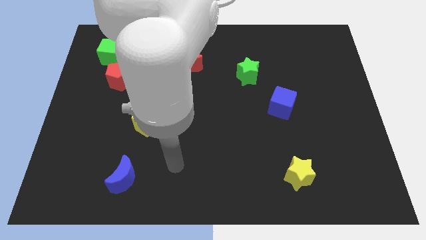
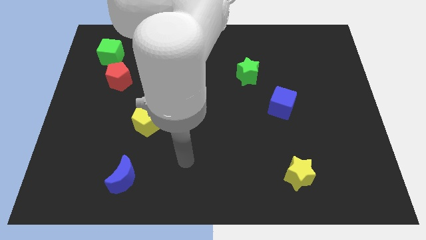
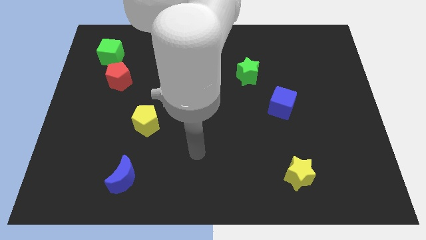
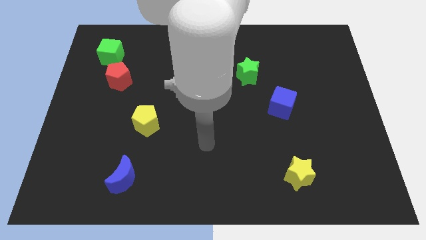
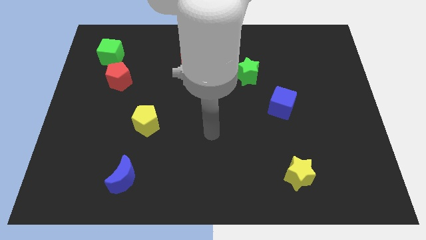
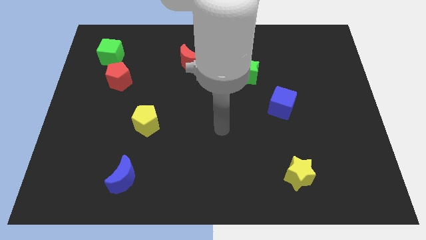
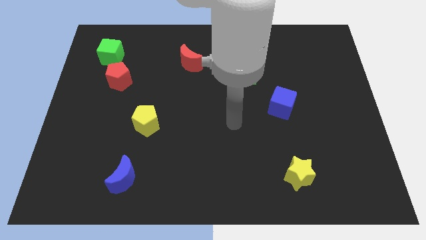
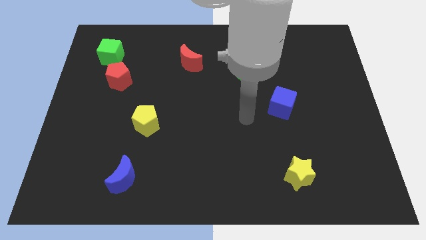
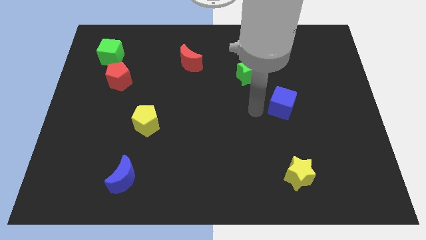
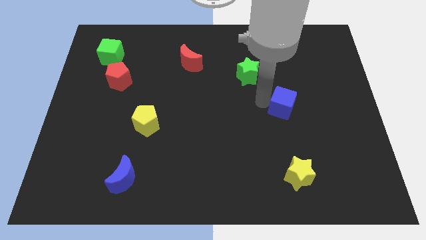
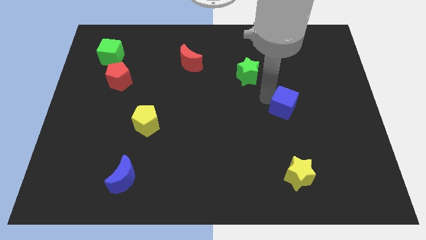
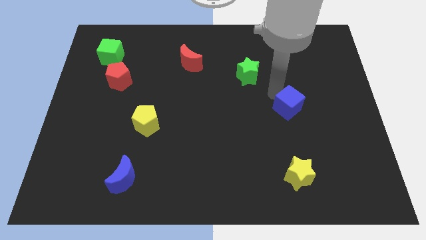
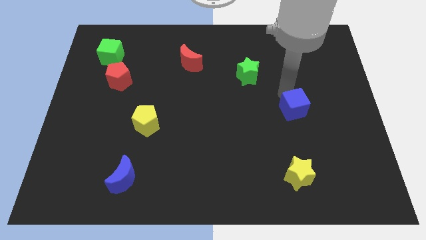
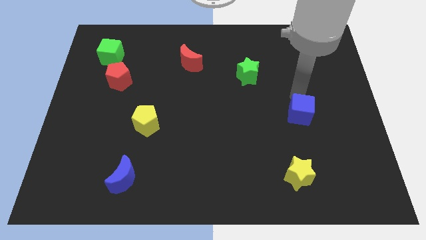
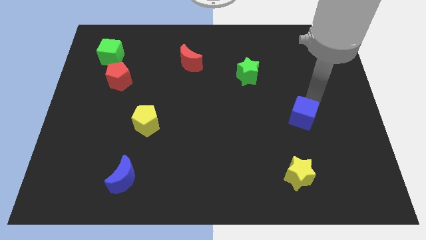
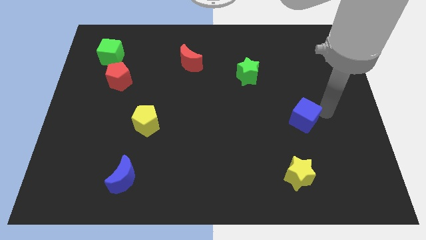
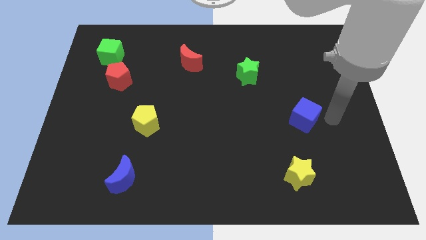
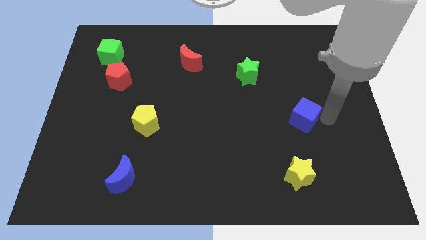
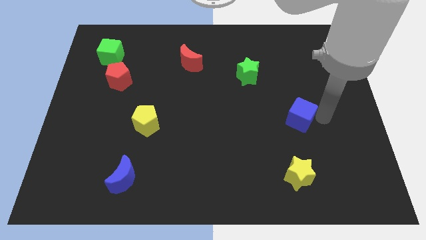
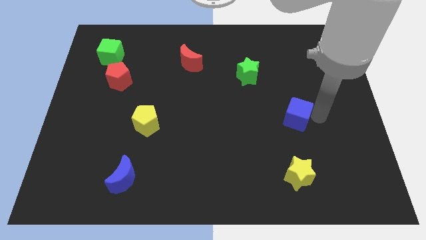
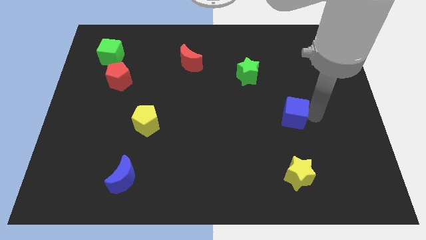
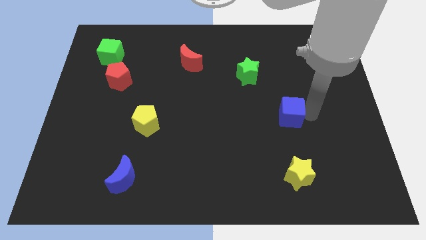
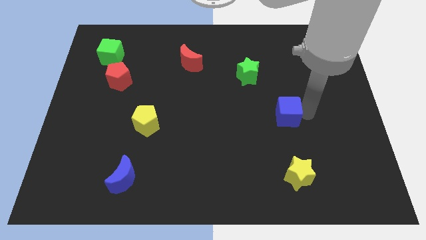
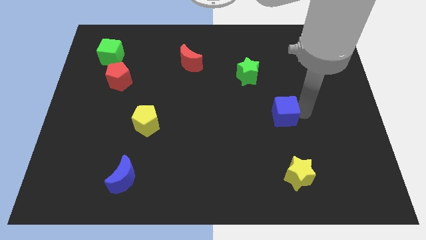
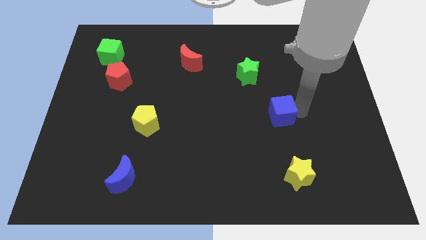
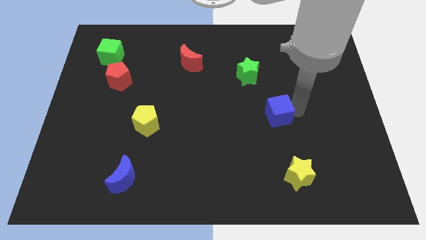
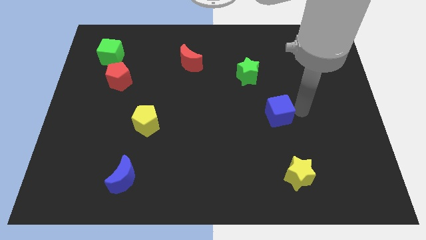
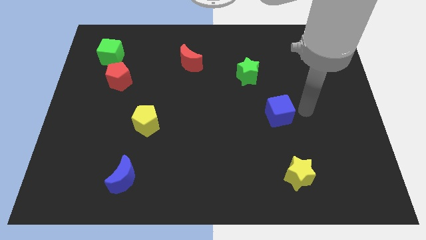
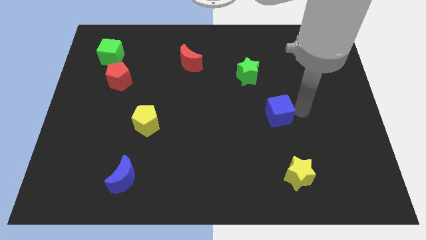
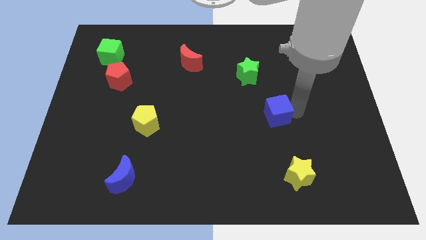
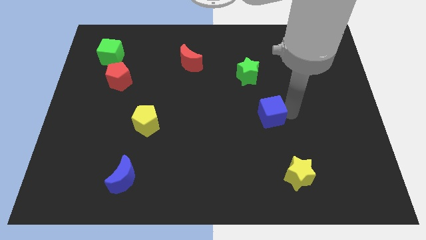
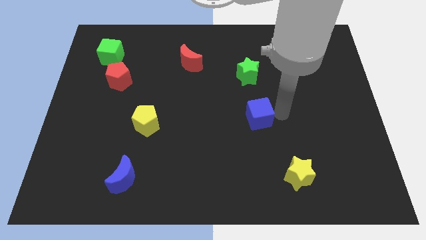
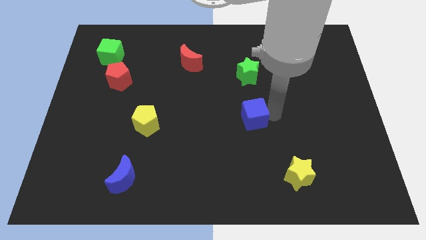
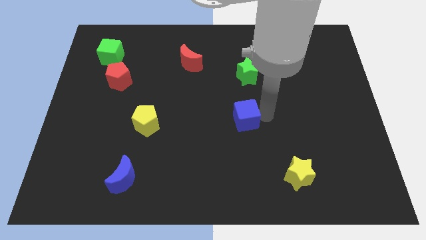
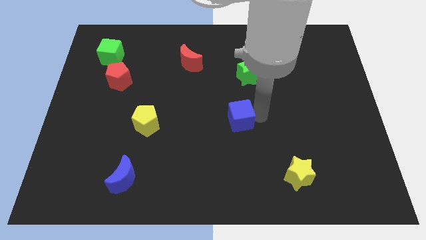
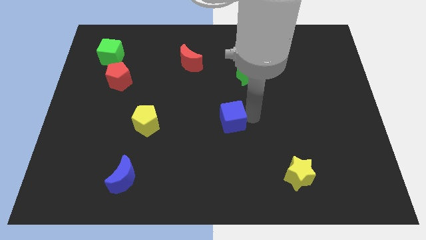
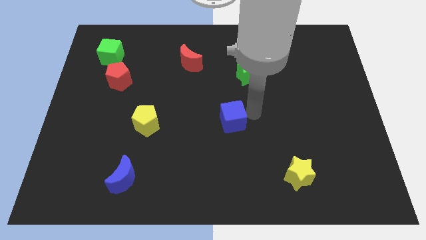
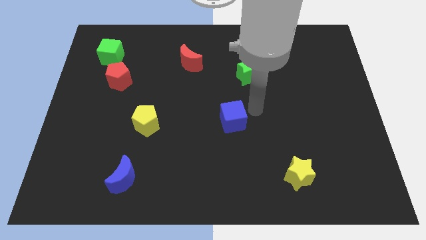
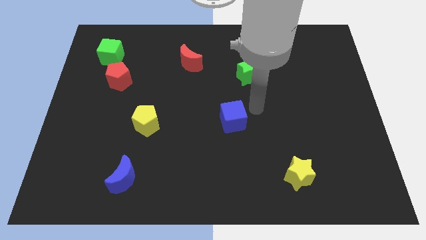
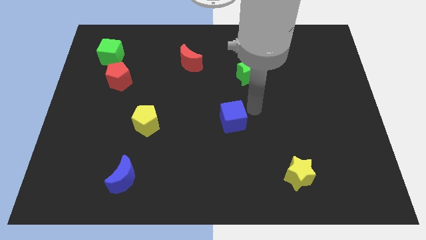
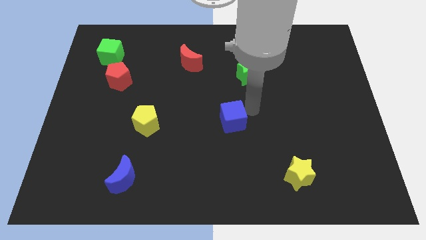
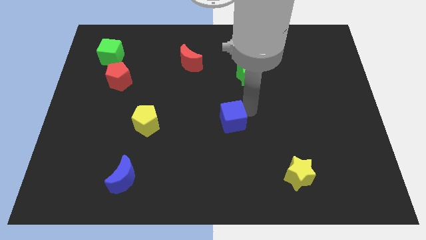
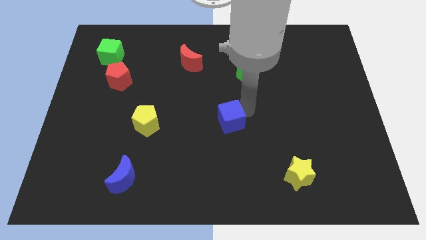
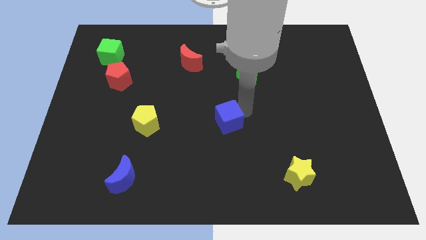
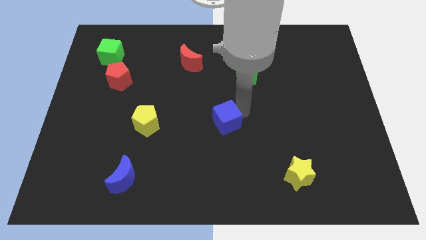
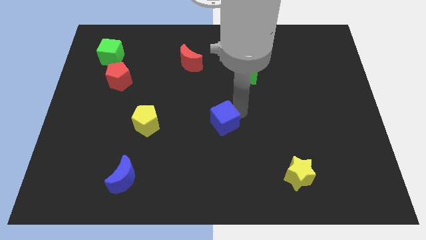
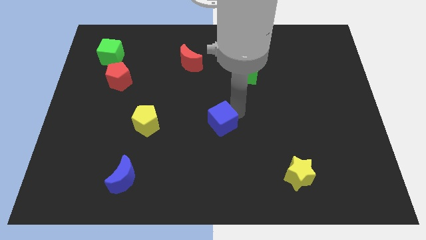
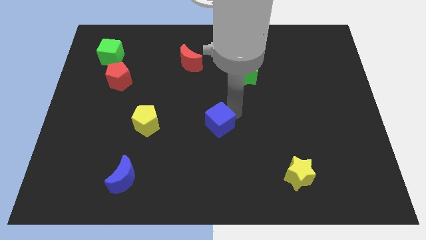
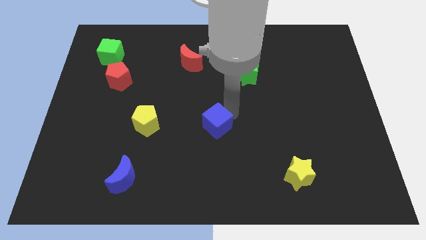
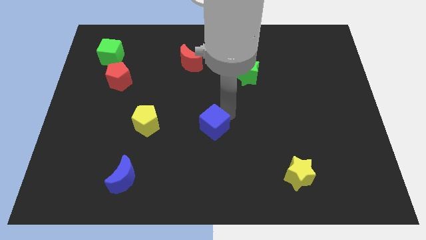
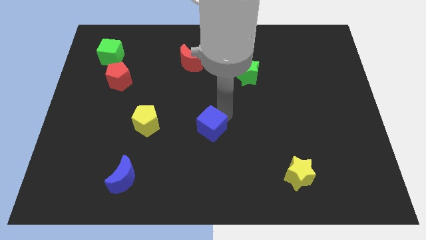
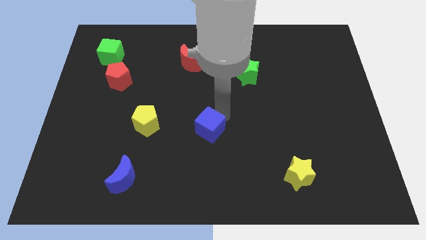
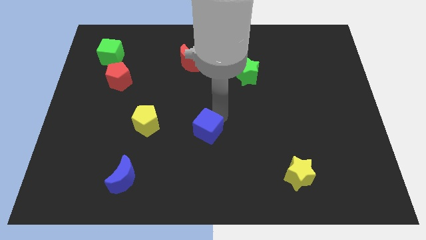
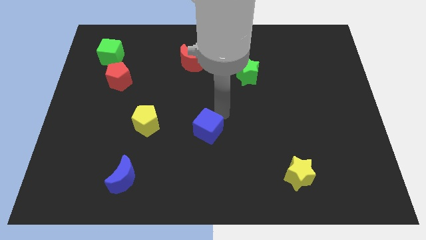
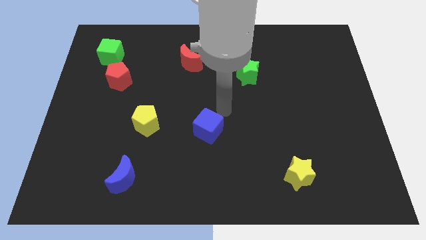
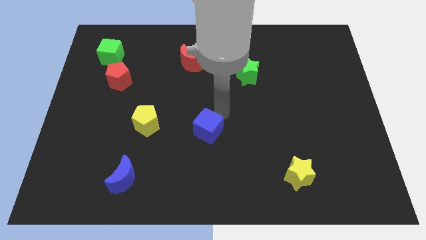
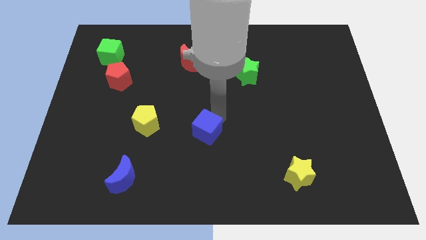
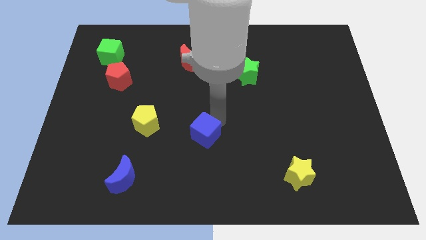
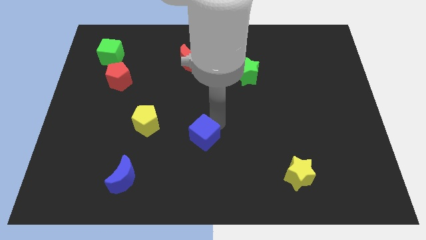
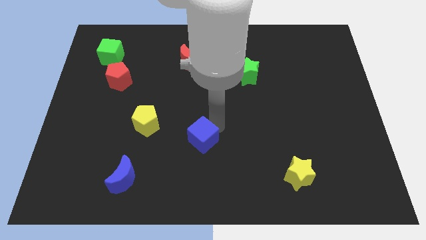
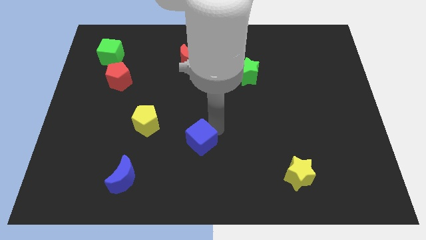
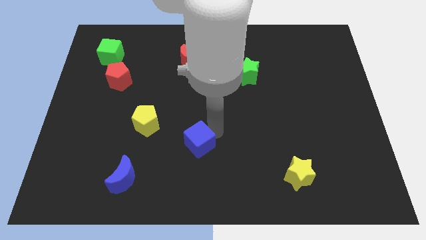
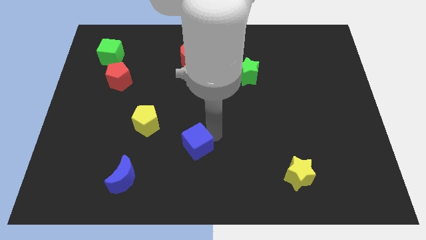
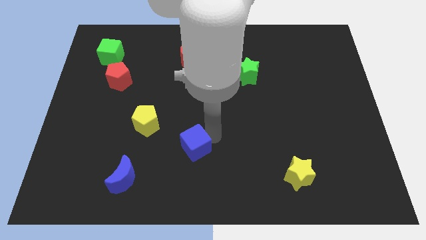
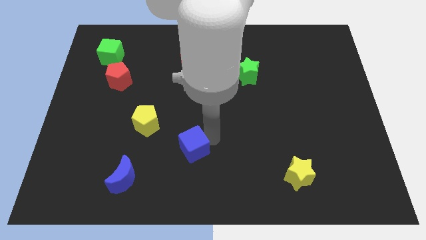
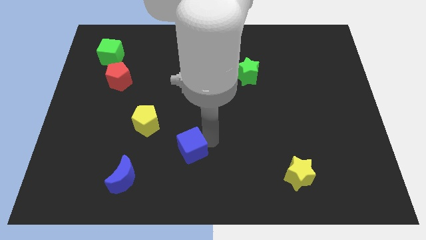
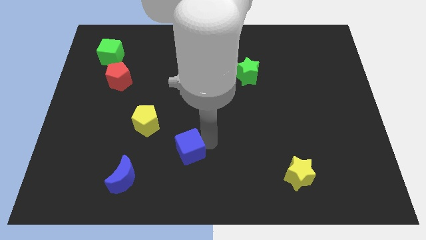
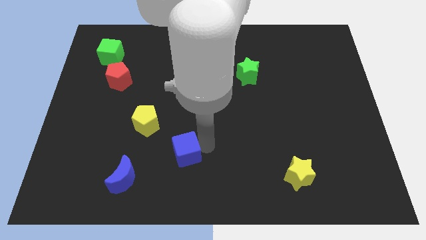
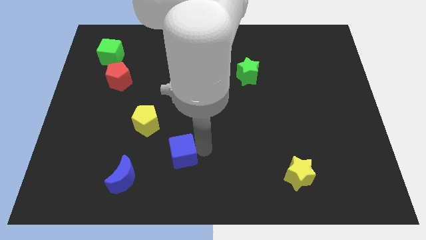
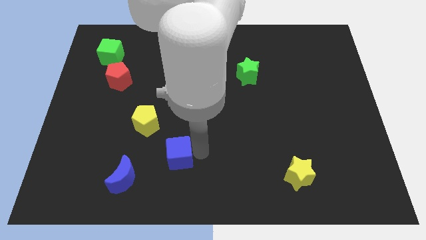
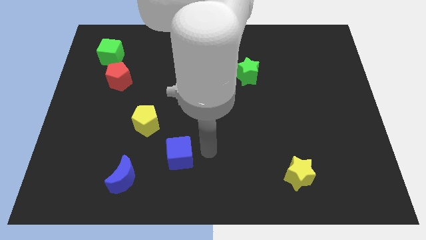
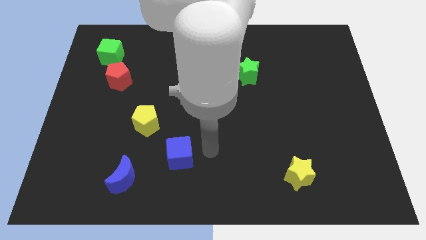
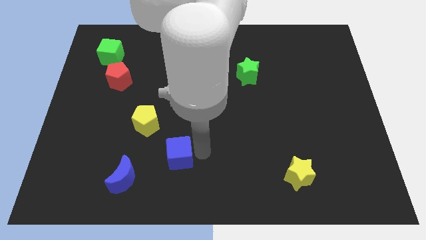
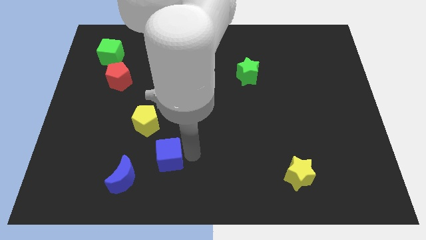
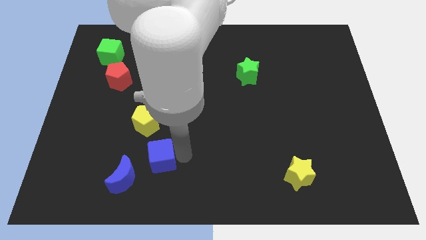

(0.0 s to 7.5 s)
put the blue cube to the bottom of the yellow pentagon
